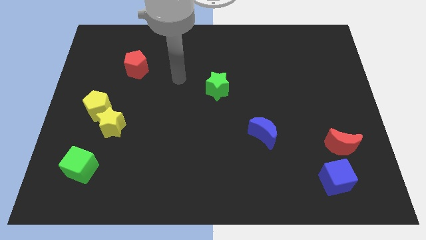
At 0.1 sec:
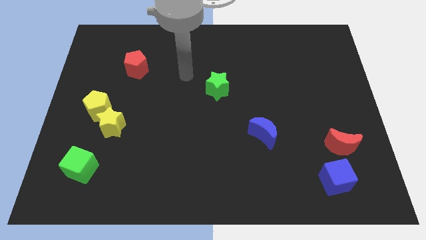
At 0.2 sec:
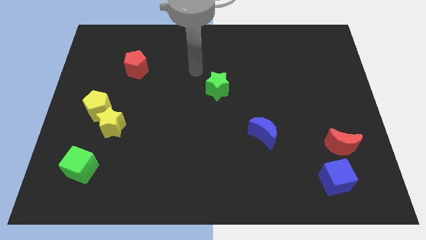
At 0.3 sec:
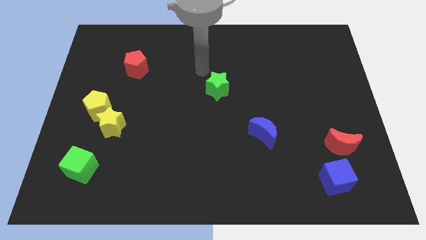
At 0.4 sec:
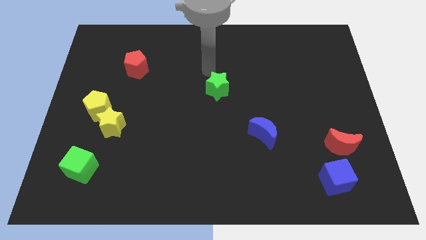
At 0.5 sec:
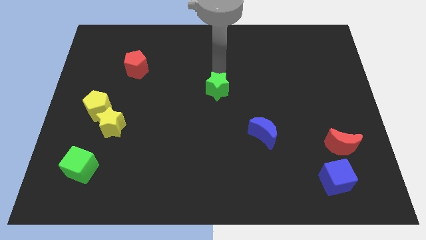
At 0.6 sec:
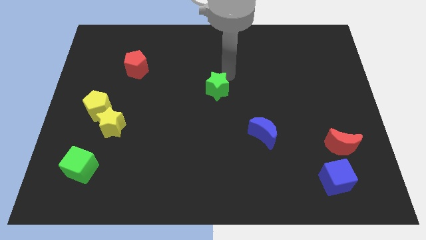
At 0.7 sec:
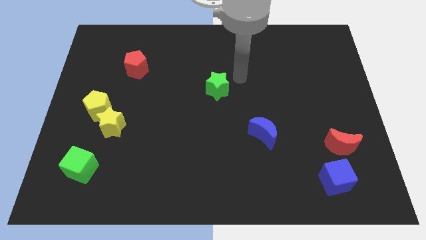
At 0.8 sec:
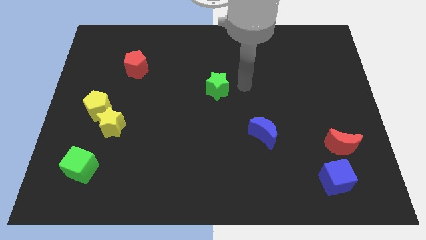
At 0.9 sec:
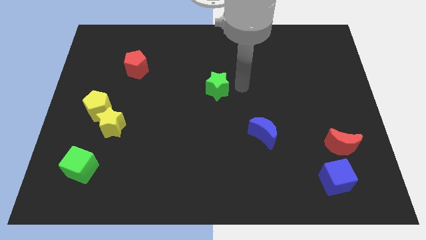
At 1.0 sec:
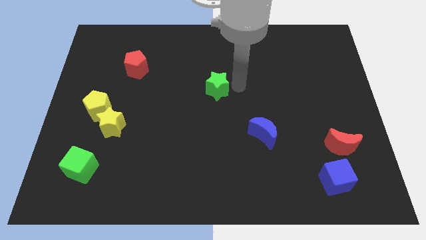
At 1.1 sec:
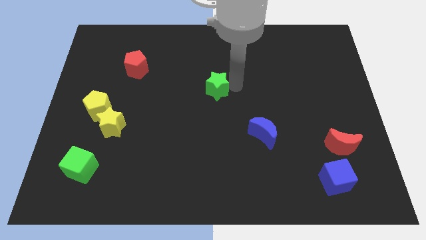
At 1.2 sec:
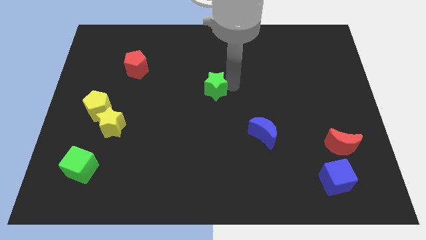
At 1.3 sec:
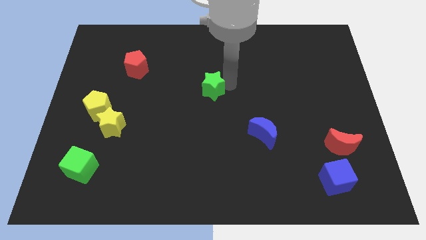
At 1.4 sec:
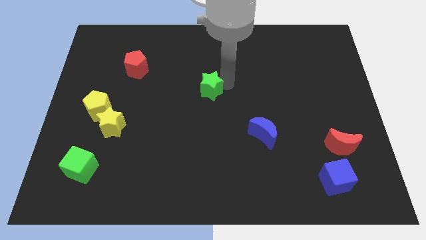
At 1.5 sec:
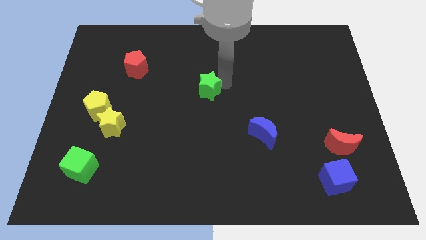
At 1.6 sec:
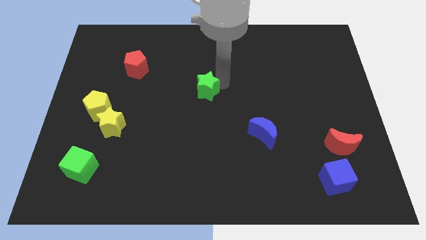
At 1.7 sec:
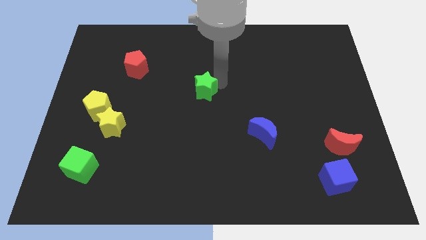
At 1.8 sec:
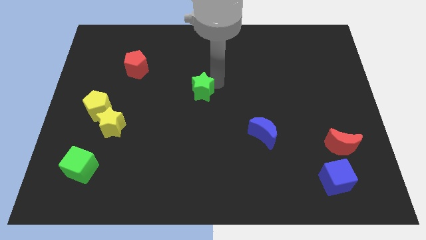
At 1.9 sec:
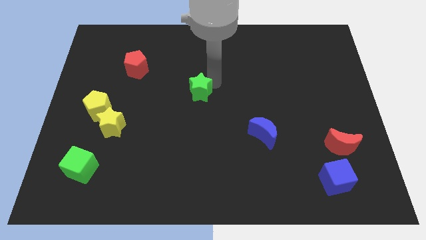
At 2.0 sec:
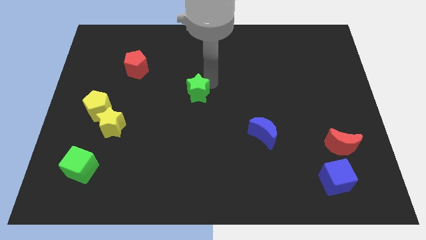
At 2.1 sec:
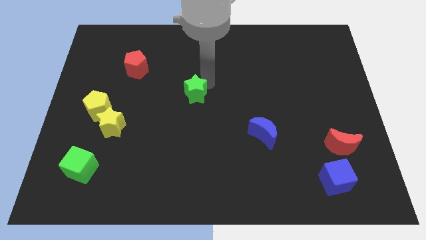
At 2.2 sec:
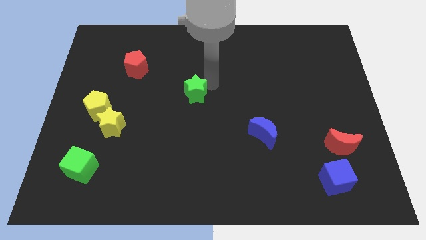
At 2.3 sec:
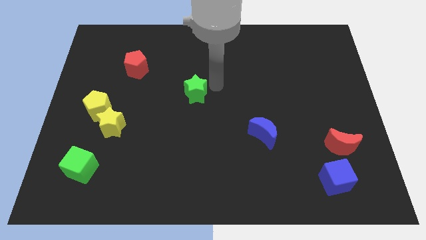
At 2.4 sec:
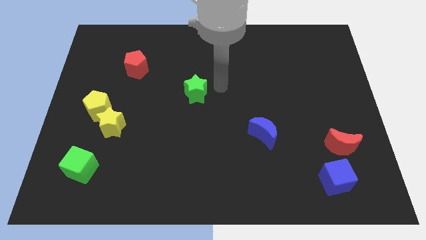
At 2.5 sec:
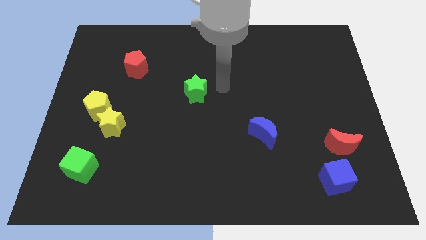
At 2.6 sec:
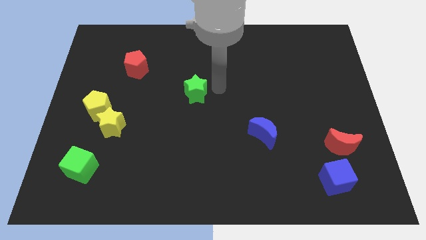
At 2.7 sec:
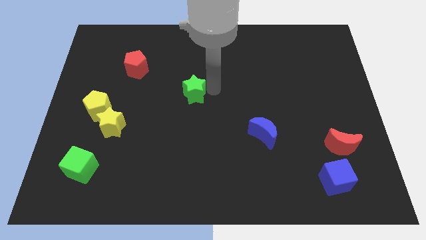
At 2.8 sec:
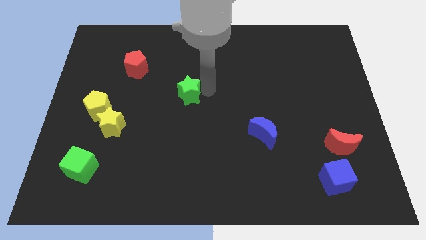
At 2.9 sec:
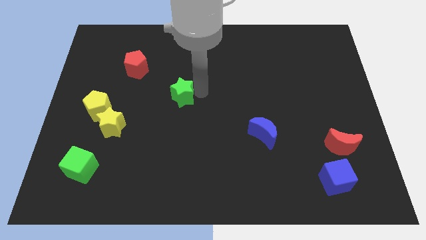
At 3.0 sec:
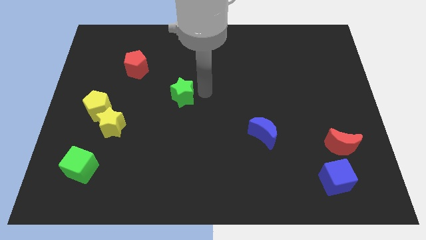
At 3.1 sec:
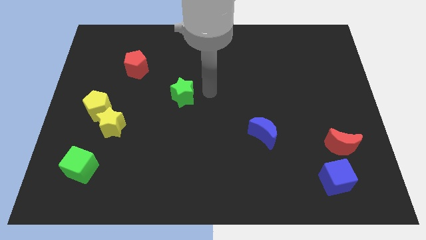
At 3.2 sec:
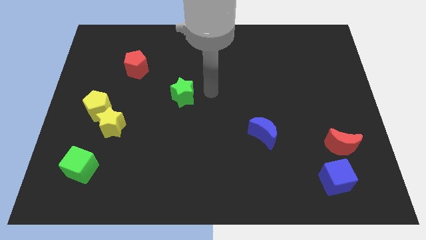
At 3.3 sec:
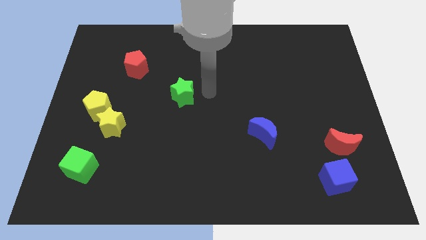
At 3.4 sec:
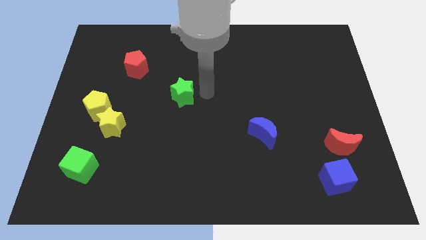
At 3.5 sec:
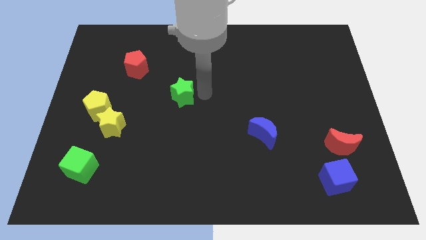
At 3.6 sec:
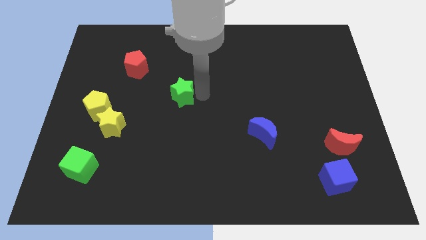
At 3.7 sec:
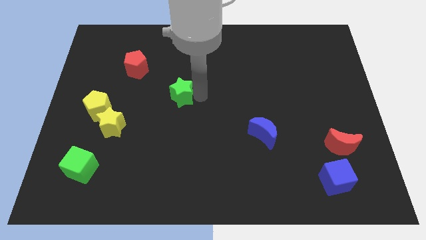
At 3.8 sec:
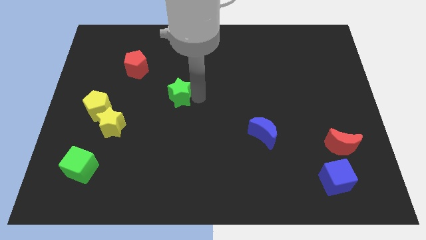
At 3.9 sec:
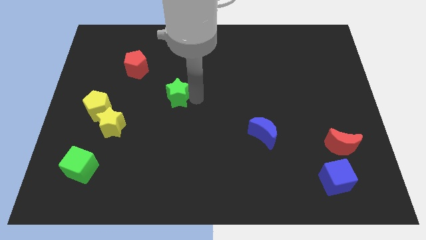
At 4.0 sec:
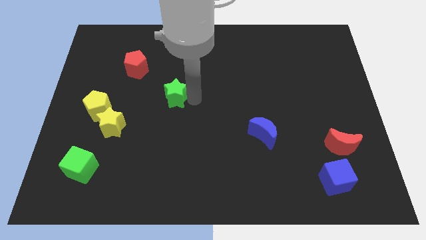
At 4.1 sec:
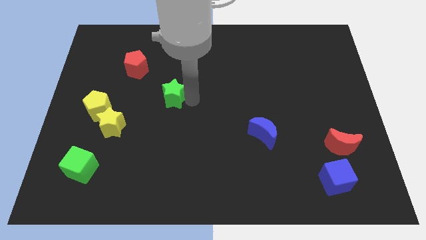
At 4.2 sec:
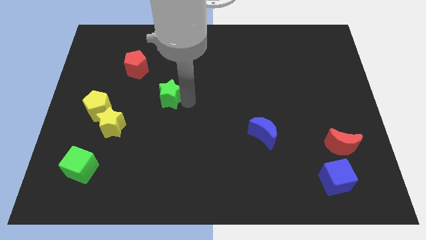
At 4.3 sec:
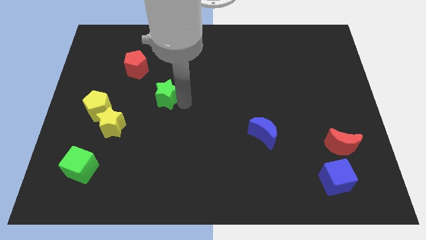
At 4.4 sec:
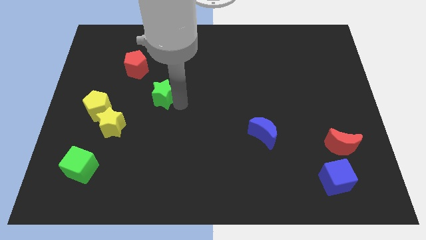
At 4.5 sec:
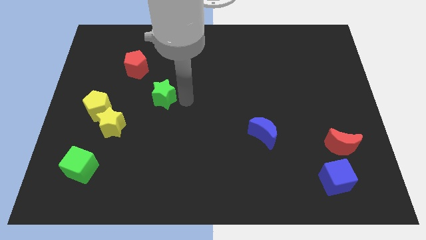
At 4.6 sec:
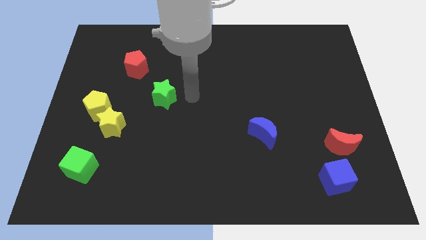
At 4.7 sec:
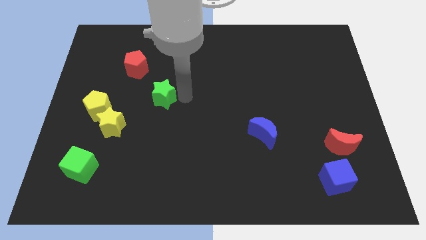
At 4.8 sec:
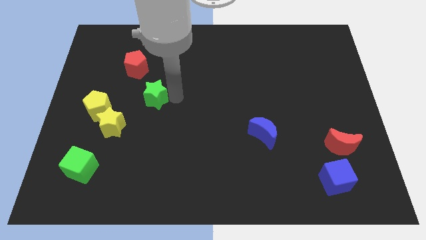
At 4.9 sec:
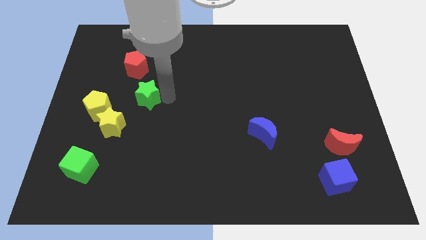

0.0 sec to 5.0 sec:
move the green star to the bottom side of the red pentagon

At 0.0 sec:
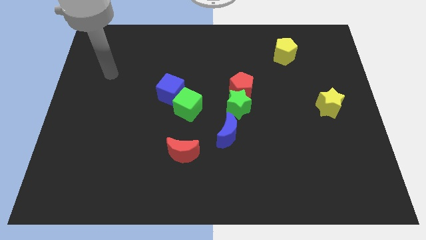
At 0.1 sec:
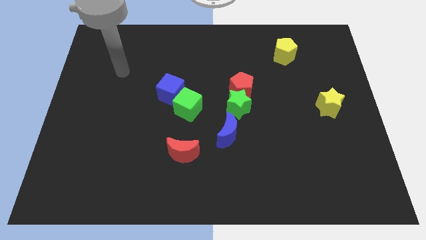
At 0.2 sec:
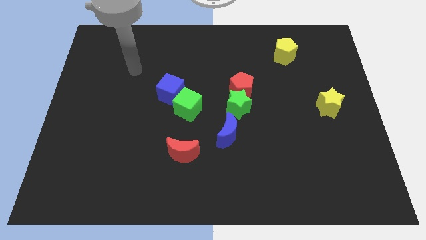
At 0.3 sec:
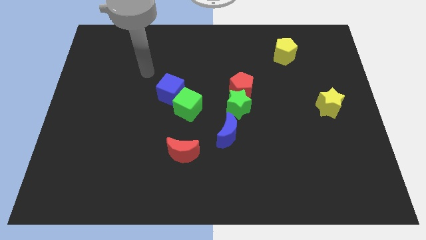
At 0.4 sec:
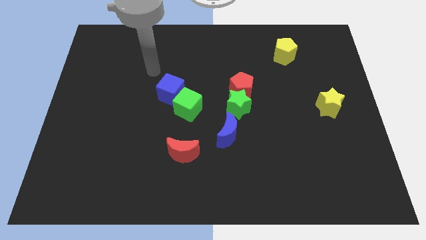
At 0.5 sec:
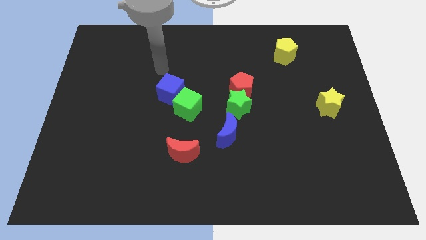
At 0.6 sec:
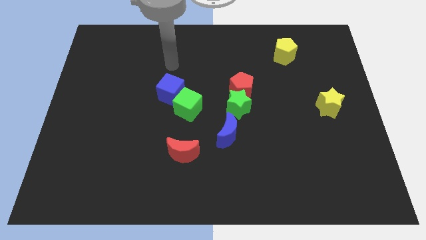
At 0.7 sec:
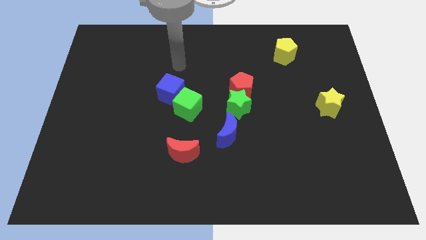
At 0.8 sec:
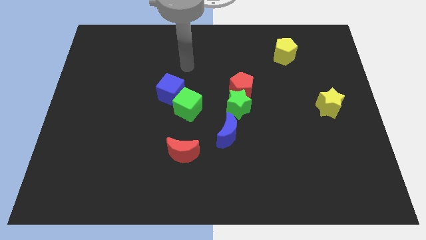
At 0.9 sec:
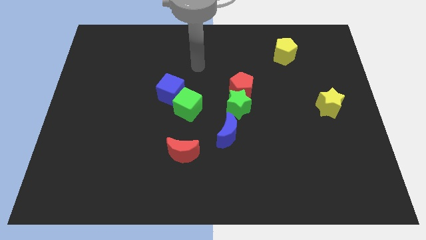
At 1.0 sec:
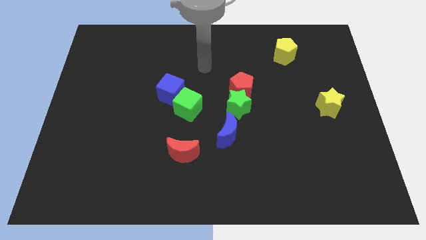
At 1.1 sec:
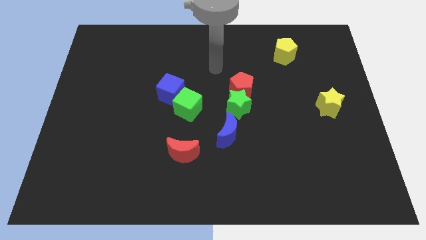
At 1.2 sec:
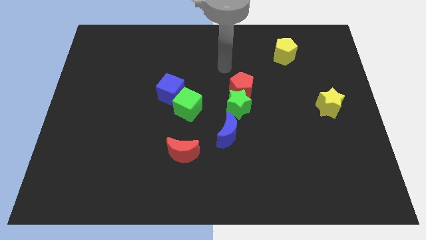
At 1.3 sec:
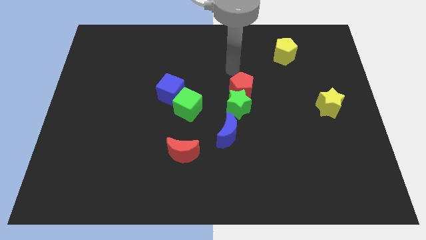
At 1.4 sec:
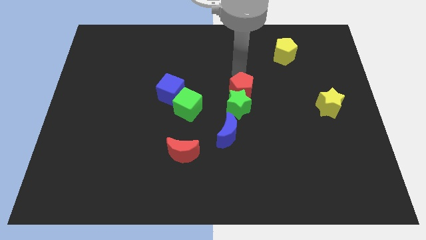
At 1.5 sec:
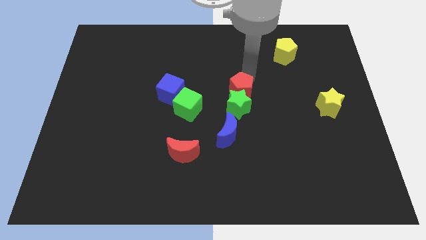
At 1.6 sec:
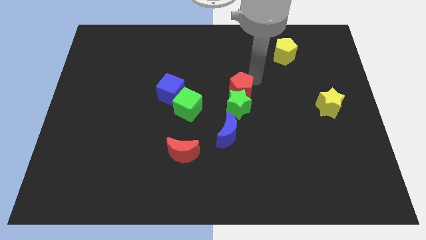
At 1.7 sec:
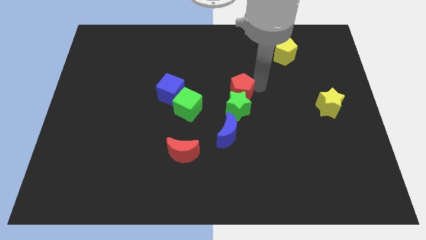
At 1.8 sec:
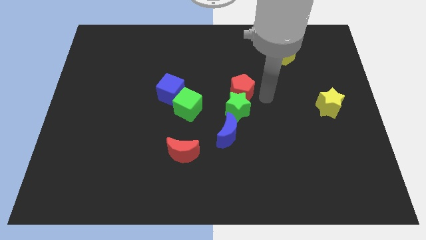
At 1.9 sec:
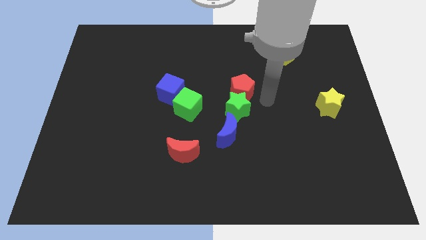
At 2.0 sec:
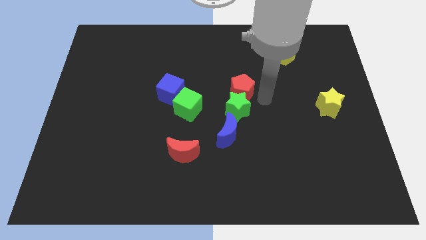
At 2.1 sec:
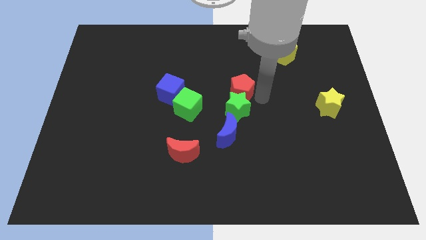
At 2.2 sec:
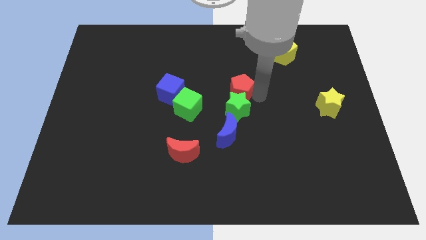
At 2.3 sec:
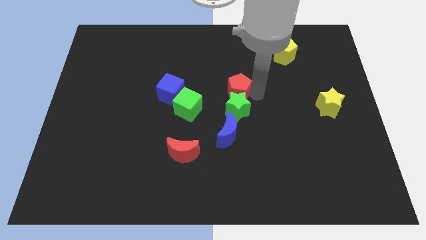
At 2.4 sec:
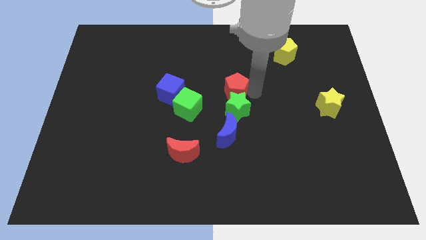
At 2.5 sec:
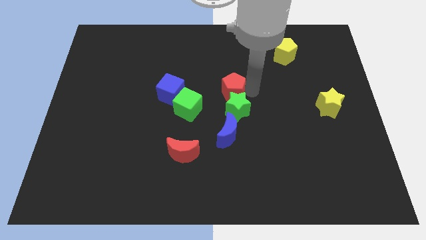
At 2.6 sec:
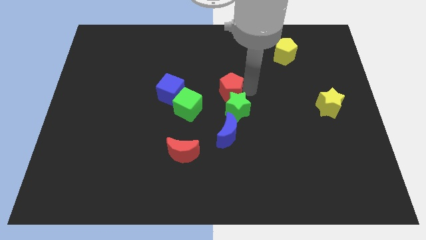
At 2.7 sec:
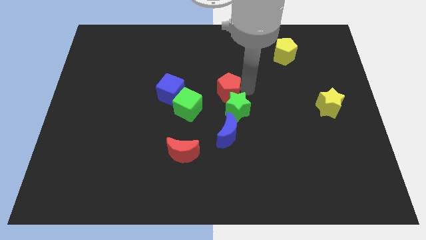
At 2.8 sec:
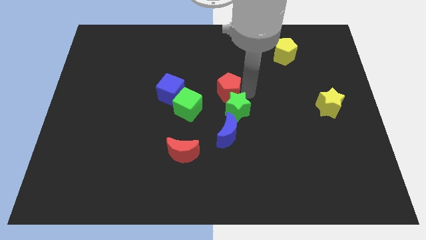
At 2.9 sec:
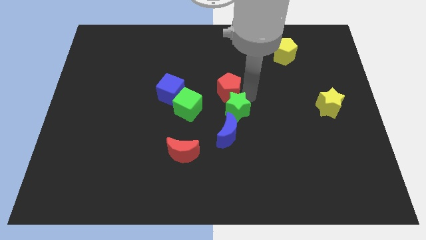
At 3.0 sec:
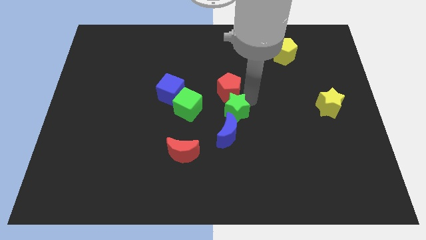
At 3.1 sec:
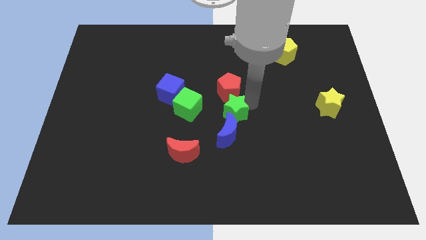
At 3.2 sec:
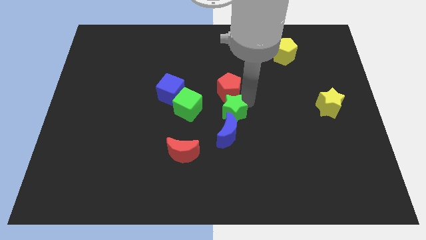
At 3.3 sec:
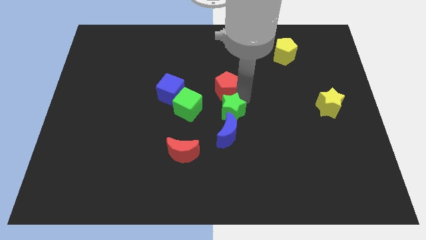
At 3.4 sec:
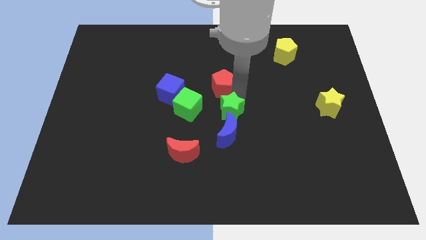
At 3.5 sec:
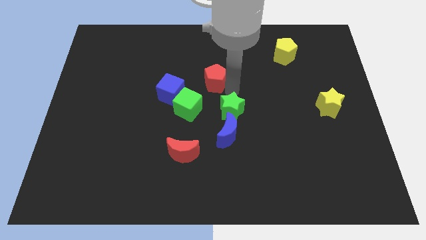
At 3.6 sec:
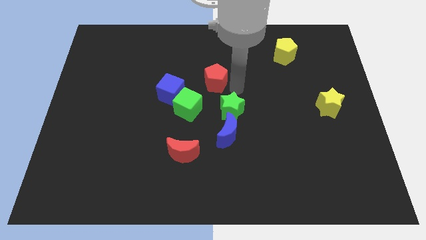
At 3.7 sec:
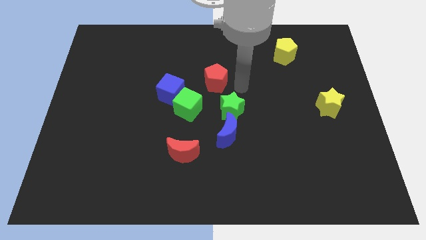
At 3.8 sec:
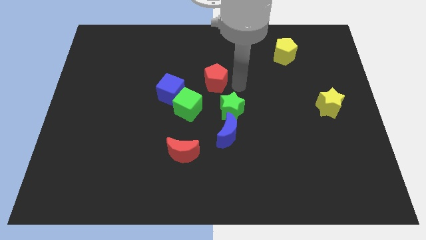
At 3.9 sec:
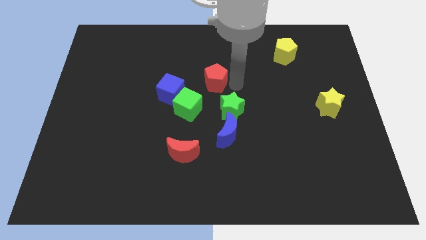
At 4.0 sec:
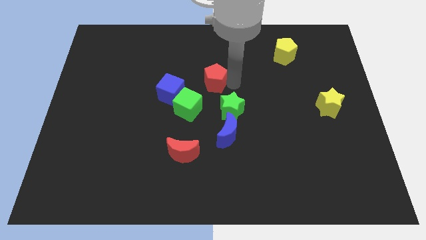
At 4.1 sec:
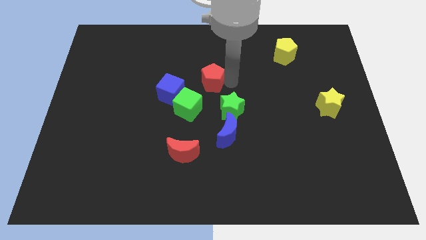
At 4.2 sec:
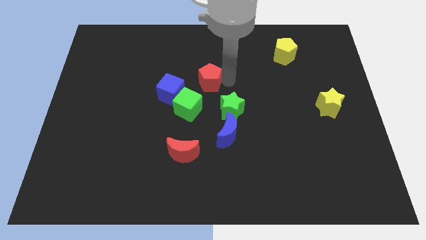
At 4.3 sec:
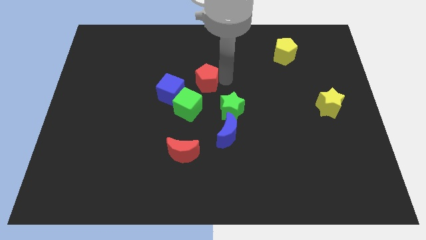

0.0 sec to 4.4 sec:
push the red pentagon to the top side of the green cube
